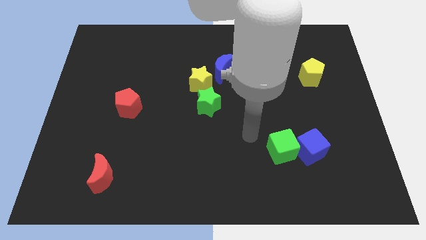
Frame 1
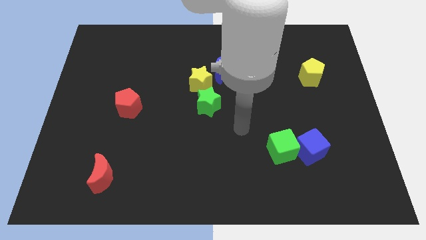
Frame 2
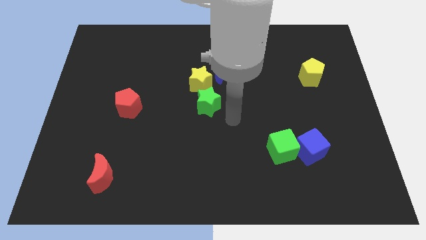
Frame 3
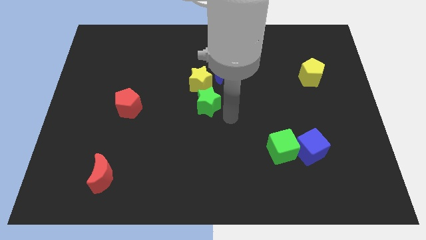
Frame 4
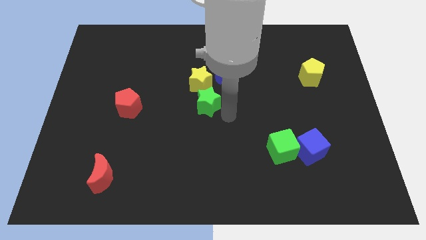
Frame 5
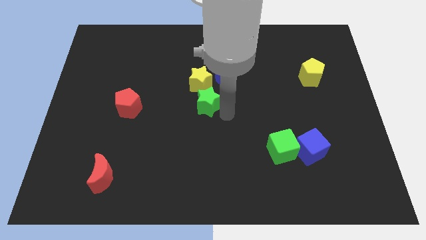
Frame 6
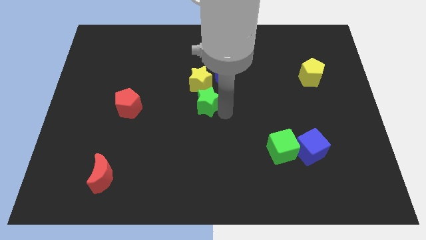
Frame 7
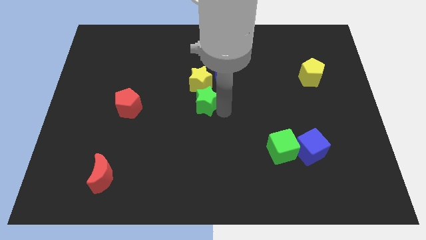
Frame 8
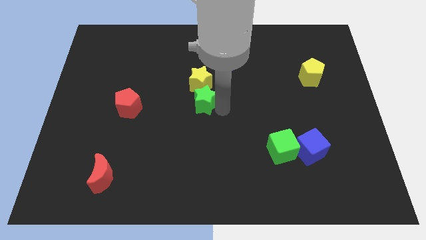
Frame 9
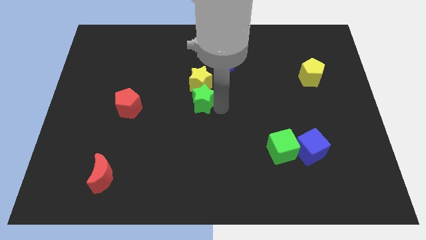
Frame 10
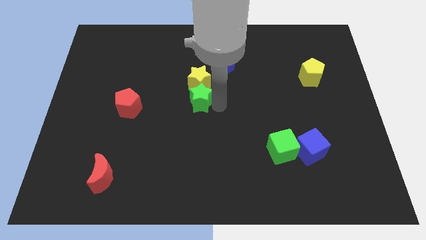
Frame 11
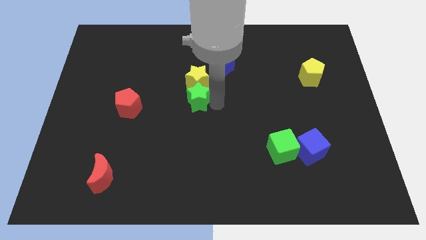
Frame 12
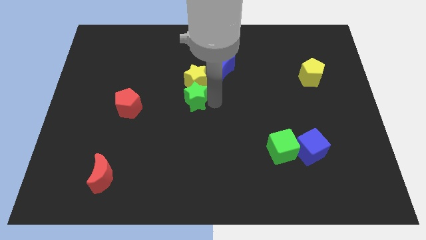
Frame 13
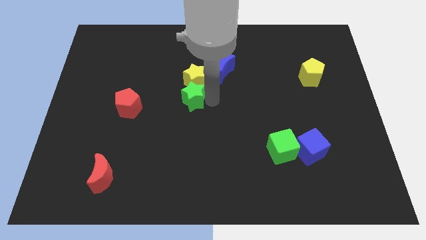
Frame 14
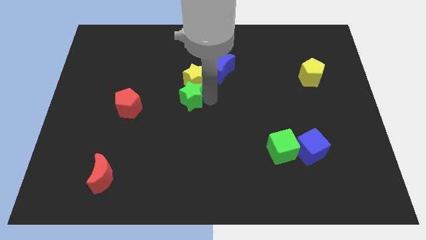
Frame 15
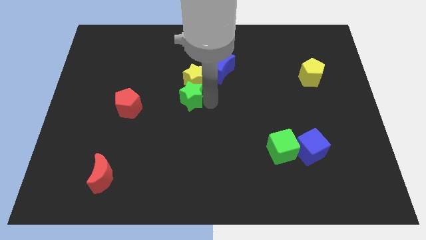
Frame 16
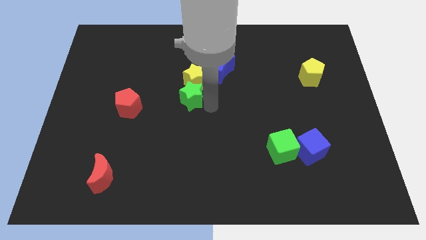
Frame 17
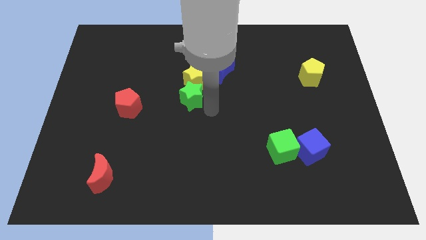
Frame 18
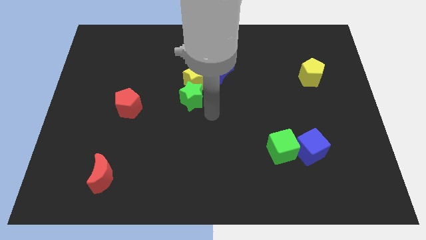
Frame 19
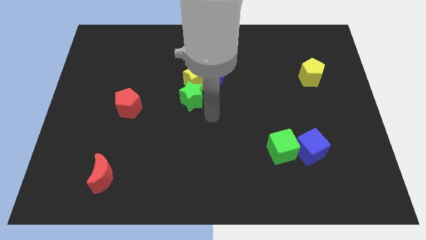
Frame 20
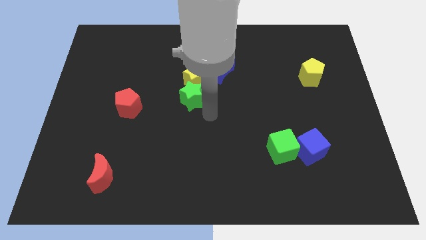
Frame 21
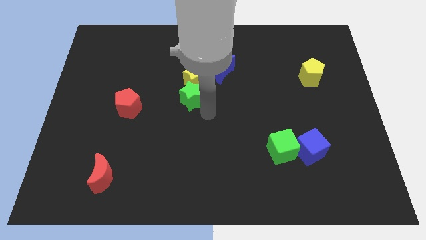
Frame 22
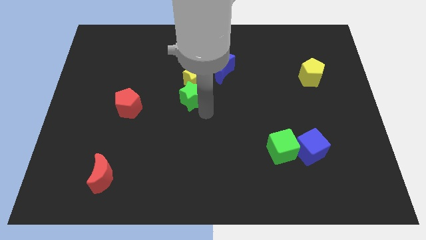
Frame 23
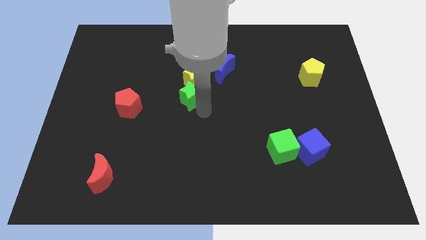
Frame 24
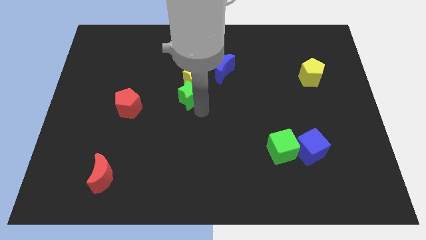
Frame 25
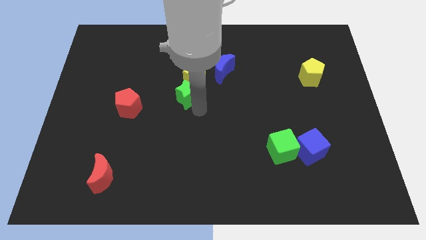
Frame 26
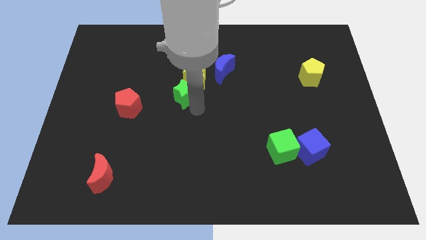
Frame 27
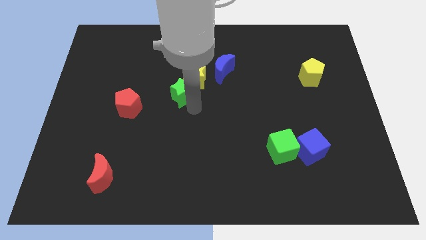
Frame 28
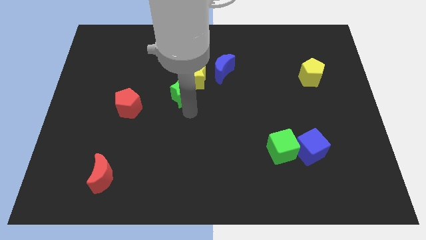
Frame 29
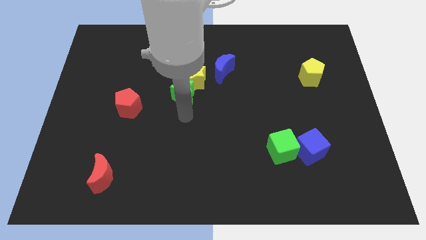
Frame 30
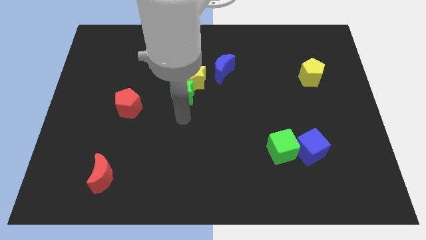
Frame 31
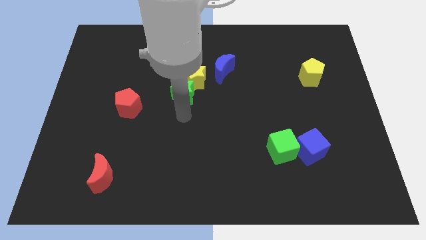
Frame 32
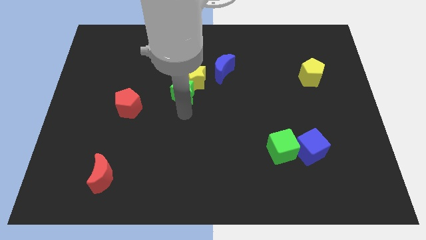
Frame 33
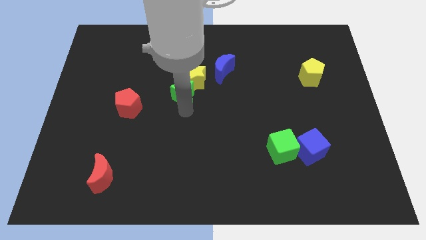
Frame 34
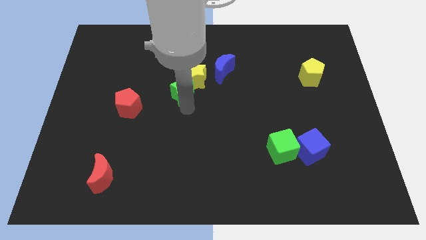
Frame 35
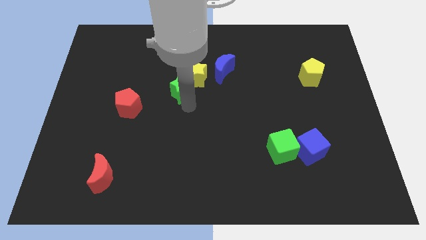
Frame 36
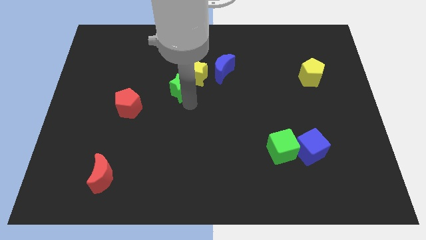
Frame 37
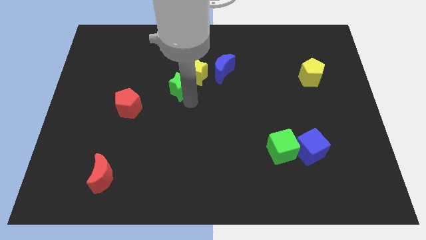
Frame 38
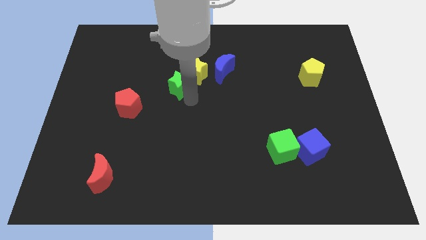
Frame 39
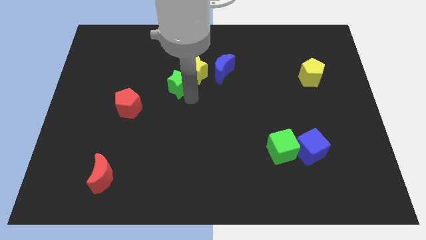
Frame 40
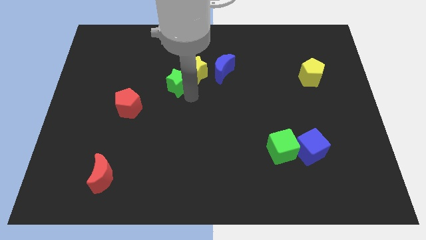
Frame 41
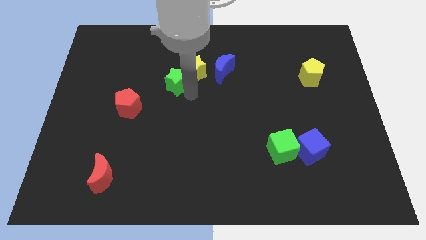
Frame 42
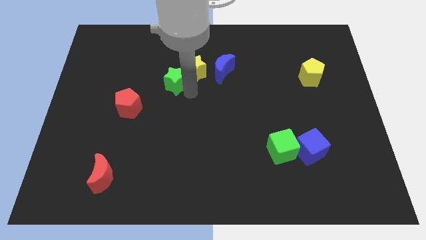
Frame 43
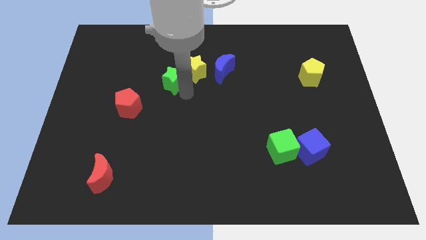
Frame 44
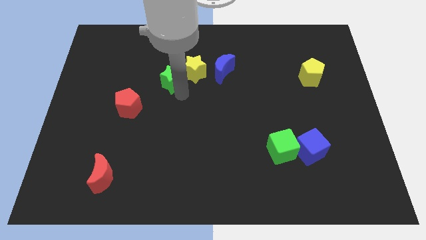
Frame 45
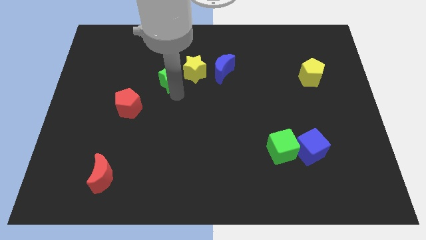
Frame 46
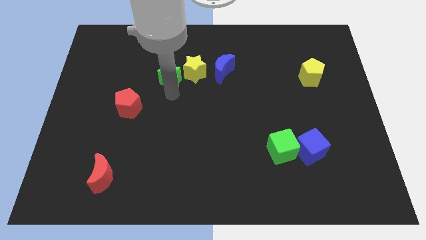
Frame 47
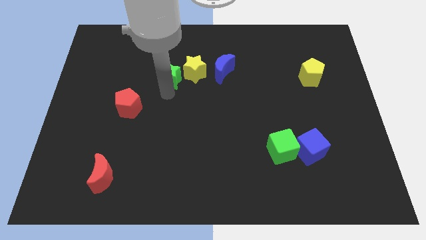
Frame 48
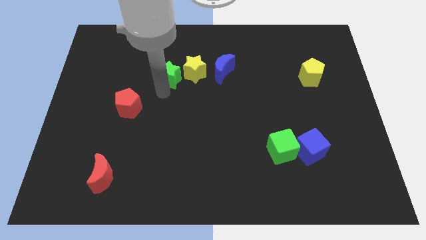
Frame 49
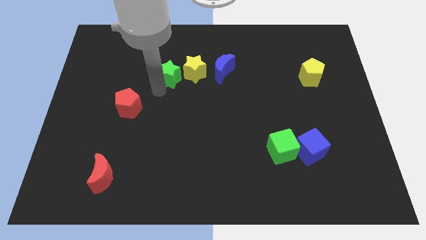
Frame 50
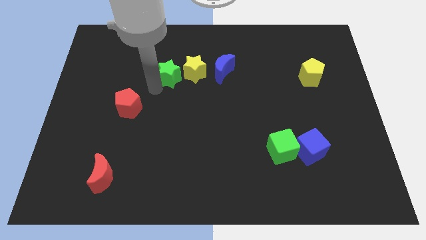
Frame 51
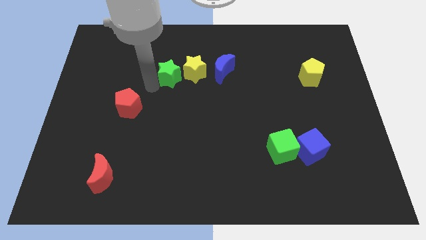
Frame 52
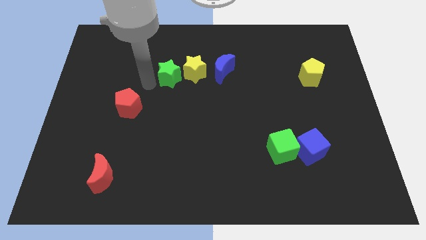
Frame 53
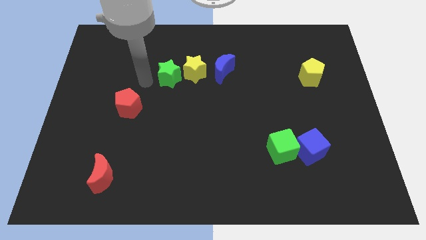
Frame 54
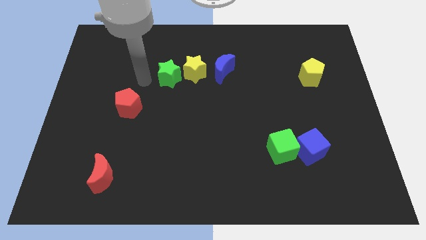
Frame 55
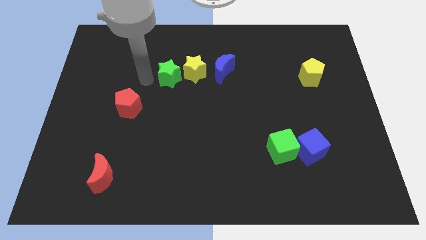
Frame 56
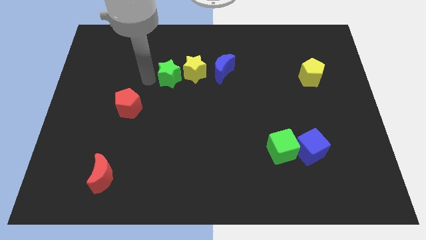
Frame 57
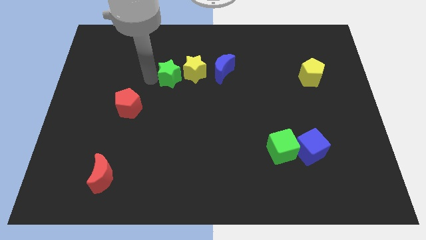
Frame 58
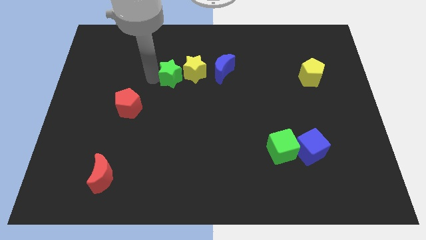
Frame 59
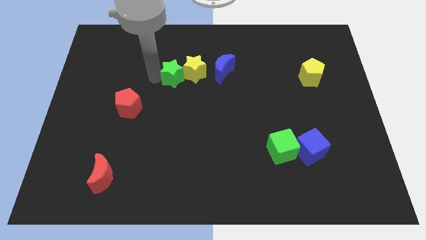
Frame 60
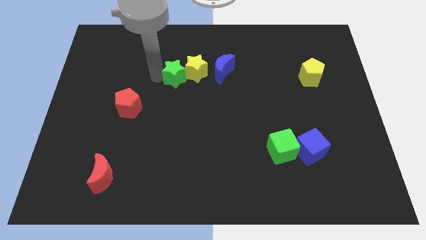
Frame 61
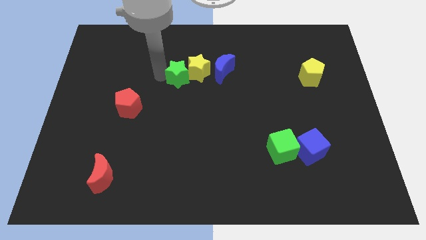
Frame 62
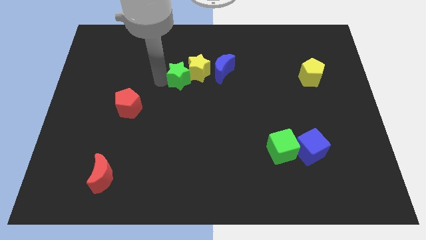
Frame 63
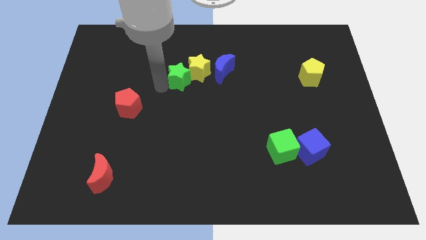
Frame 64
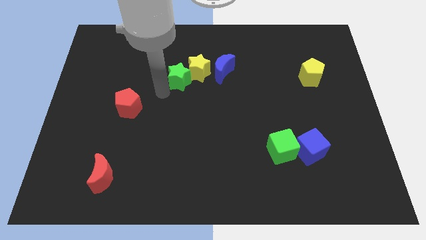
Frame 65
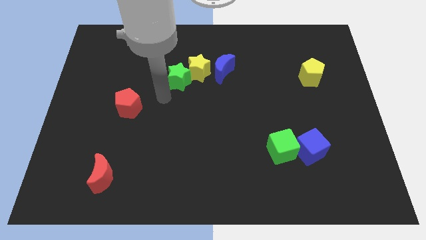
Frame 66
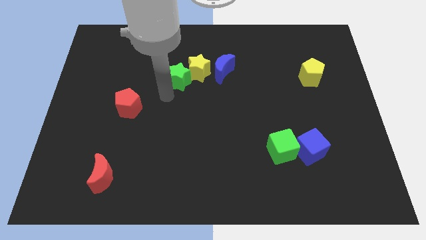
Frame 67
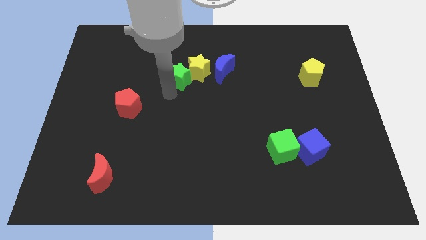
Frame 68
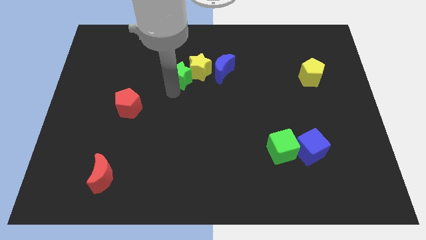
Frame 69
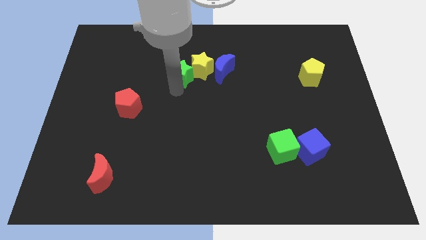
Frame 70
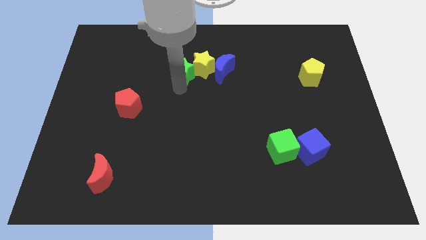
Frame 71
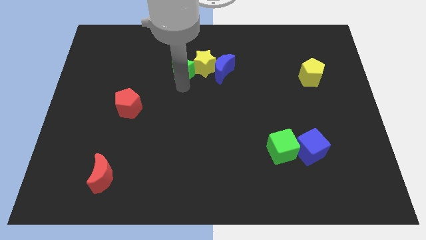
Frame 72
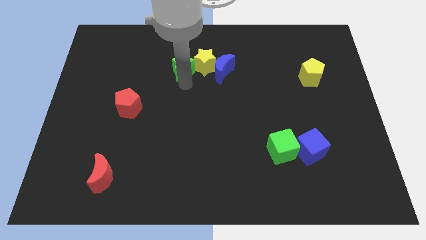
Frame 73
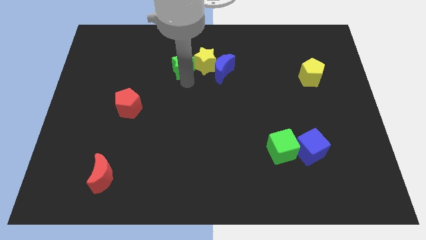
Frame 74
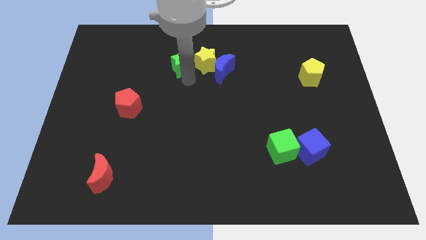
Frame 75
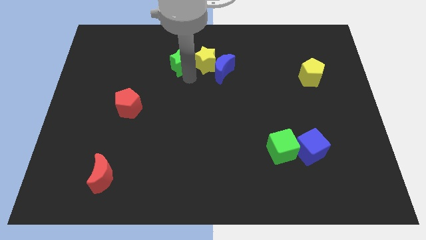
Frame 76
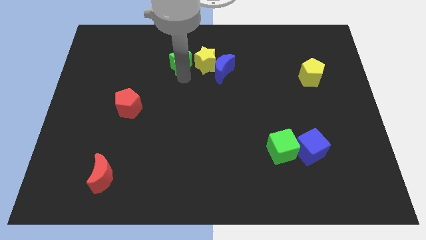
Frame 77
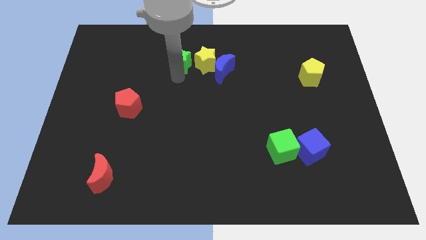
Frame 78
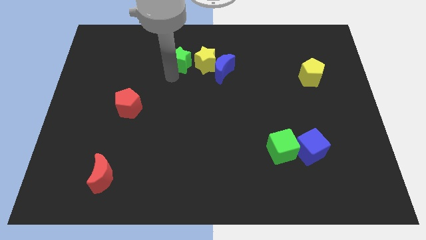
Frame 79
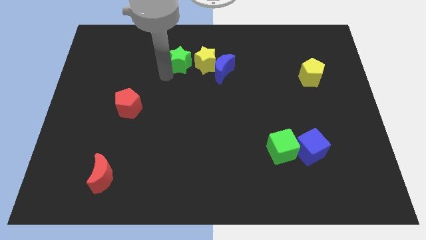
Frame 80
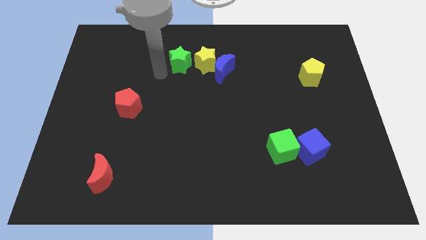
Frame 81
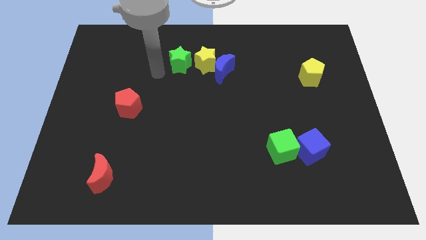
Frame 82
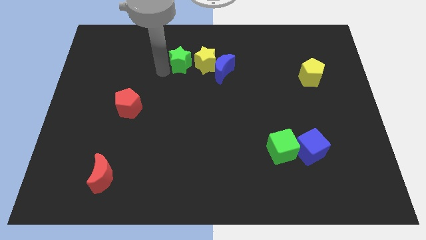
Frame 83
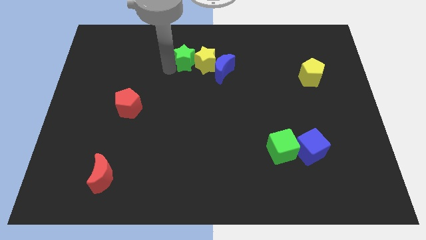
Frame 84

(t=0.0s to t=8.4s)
put the green star to the top left side of the blue moon
